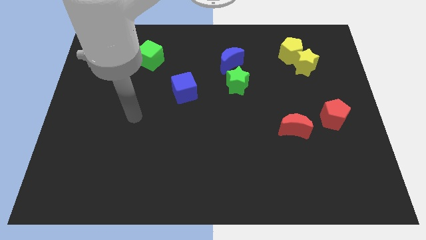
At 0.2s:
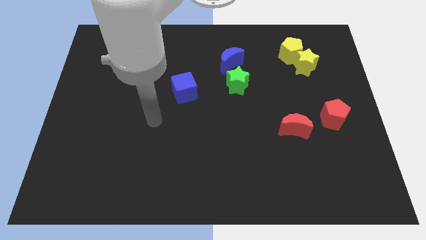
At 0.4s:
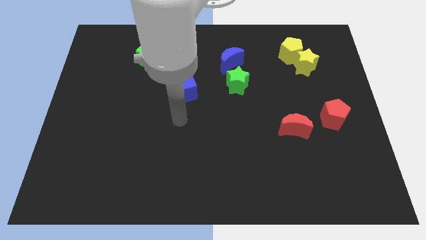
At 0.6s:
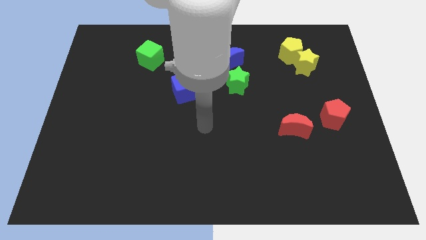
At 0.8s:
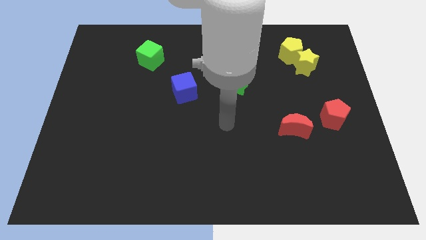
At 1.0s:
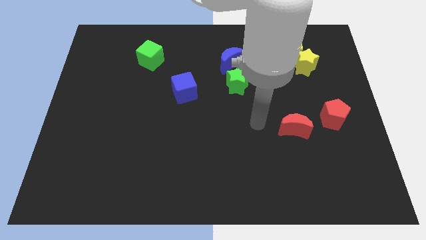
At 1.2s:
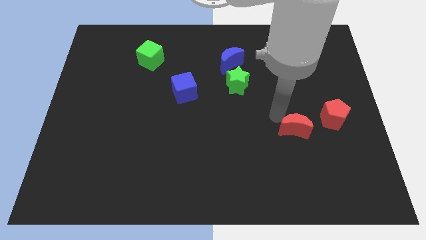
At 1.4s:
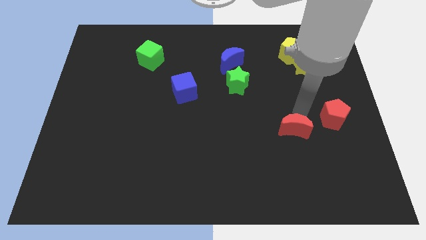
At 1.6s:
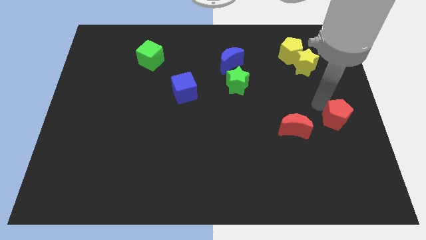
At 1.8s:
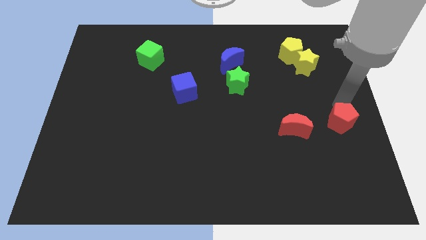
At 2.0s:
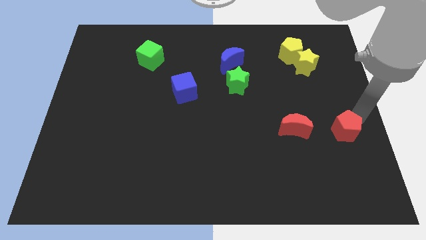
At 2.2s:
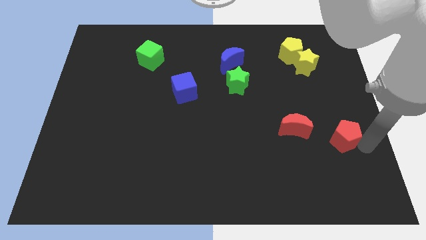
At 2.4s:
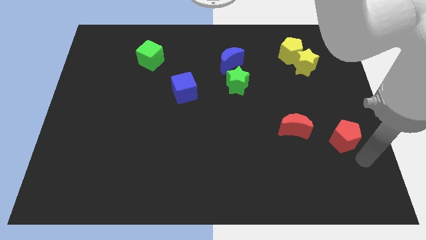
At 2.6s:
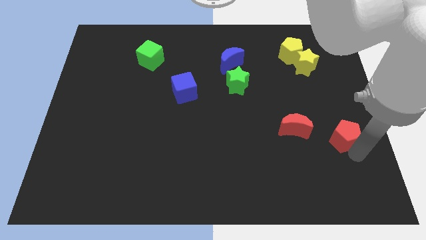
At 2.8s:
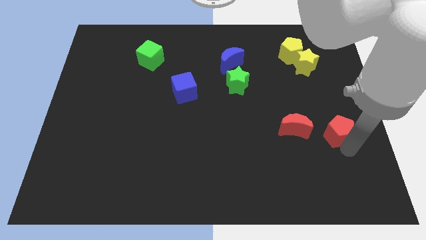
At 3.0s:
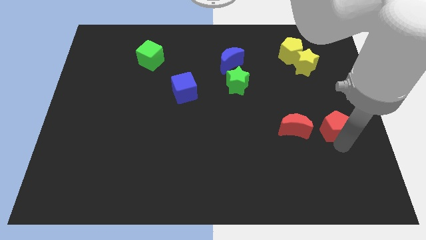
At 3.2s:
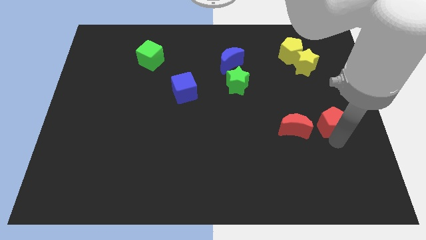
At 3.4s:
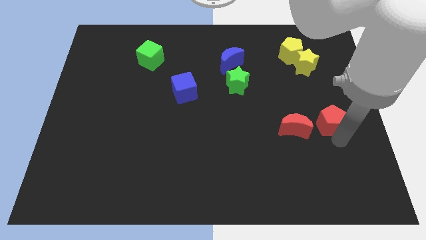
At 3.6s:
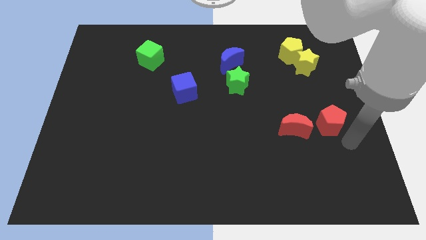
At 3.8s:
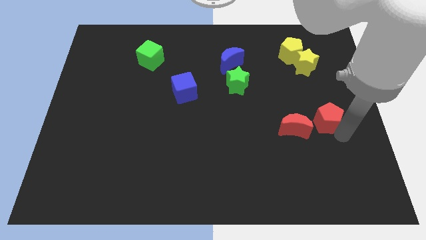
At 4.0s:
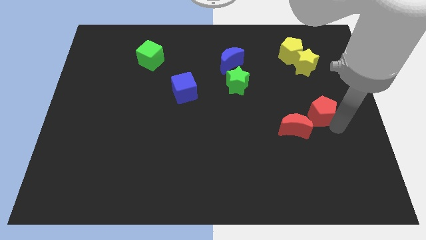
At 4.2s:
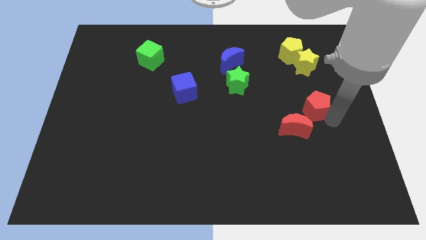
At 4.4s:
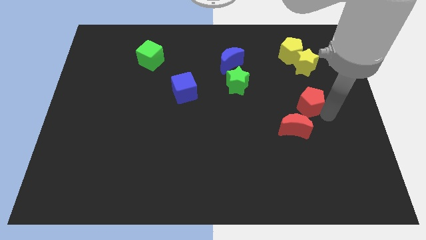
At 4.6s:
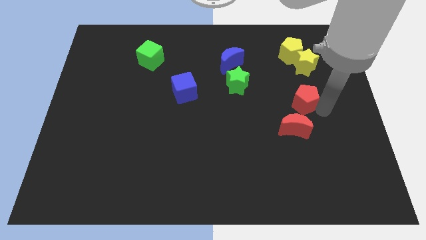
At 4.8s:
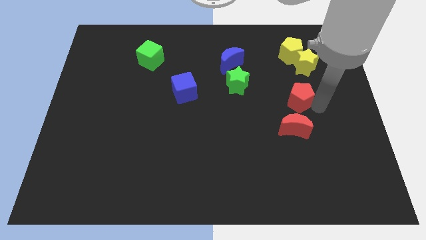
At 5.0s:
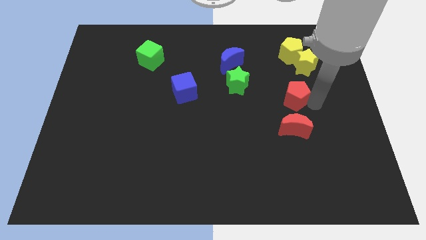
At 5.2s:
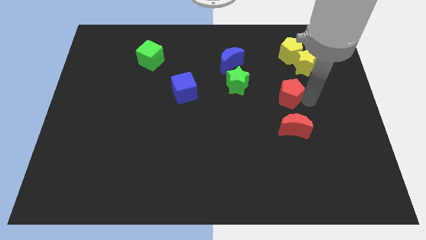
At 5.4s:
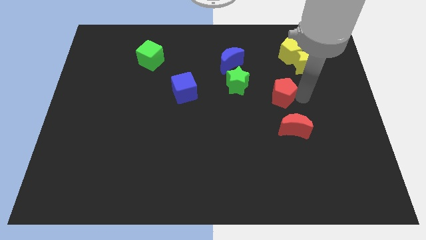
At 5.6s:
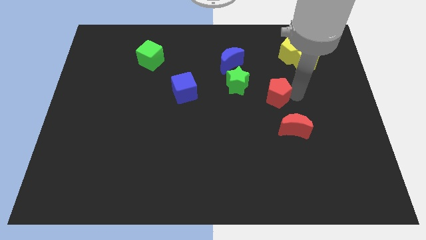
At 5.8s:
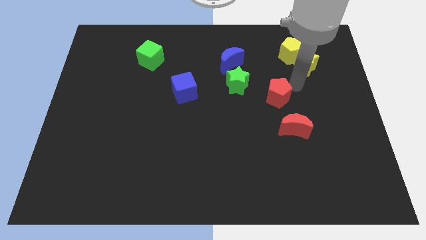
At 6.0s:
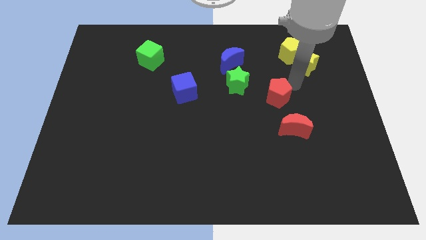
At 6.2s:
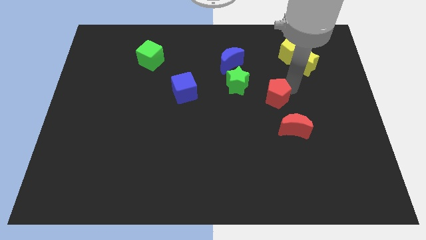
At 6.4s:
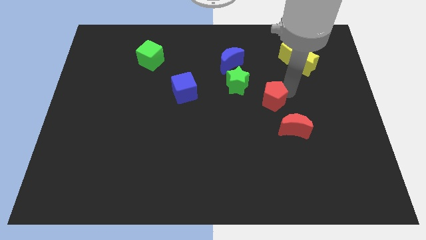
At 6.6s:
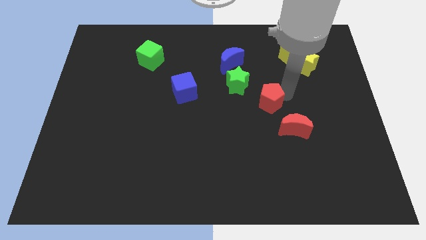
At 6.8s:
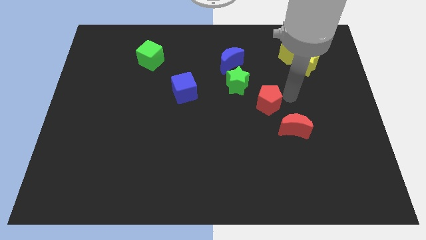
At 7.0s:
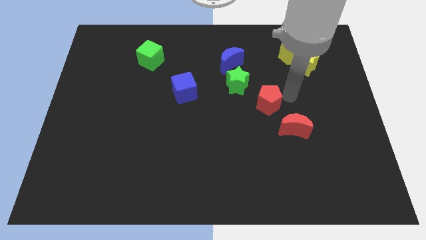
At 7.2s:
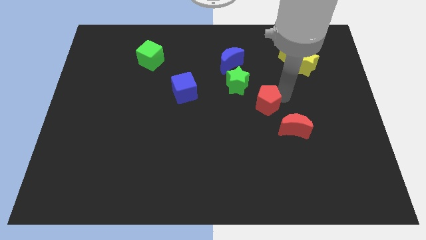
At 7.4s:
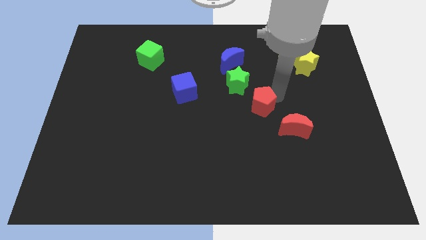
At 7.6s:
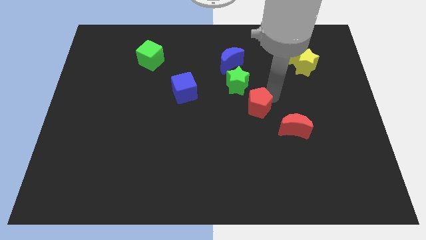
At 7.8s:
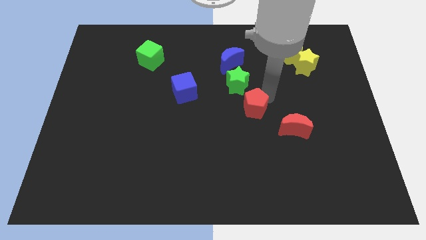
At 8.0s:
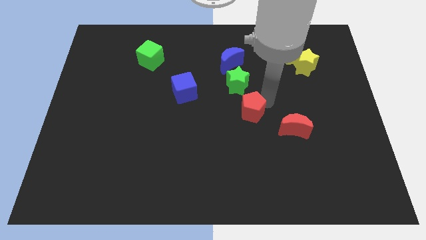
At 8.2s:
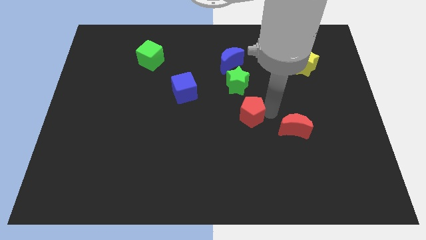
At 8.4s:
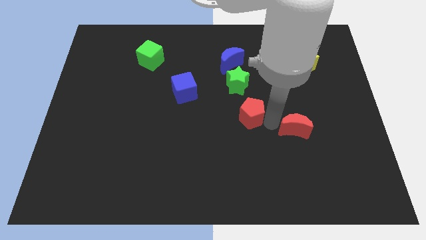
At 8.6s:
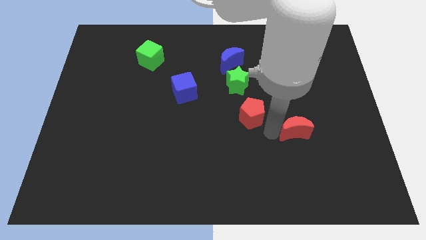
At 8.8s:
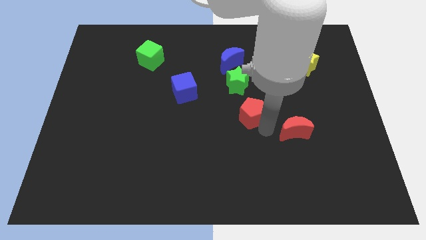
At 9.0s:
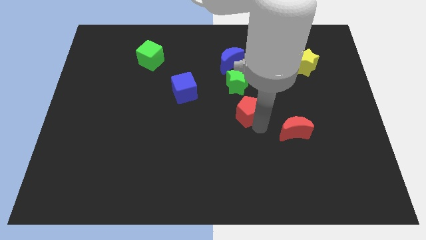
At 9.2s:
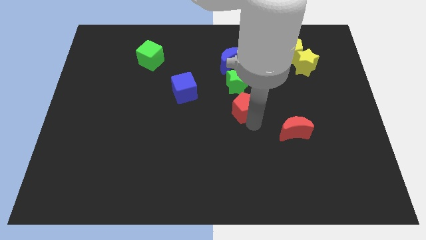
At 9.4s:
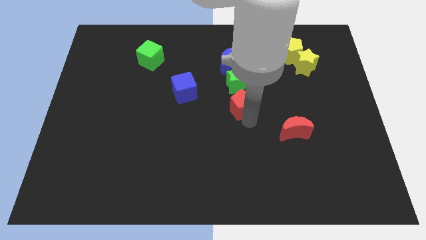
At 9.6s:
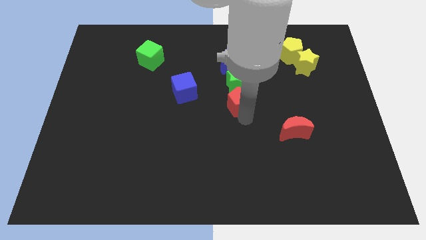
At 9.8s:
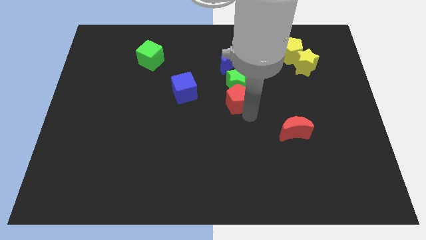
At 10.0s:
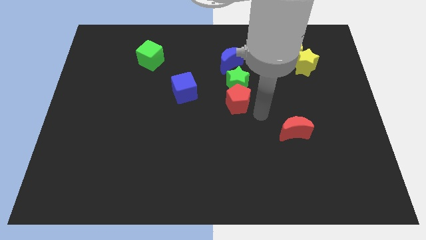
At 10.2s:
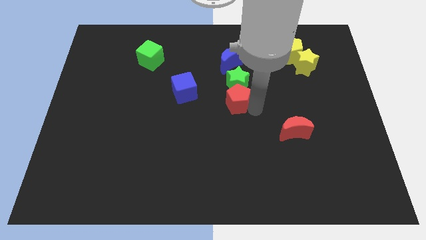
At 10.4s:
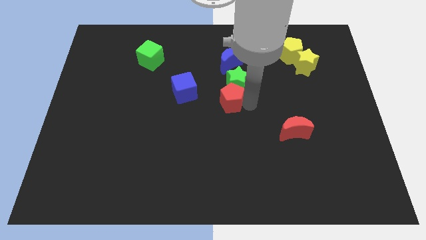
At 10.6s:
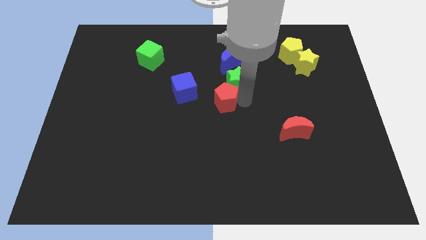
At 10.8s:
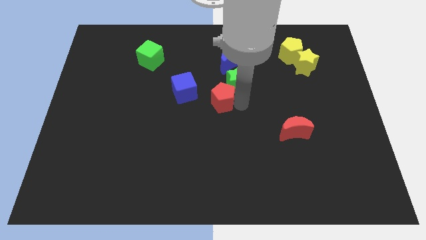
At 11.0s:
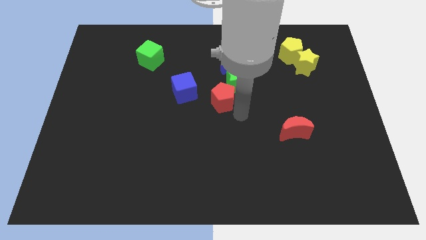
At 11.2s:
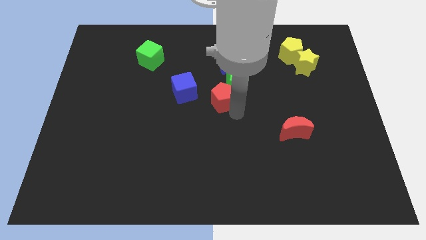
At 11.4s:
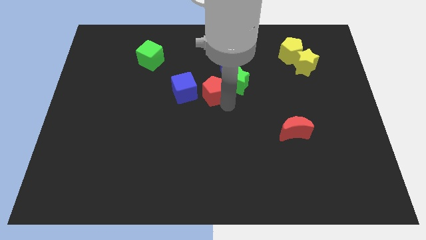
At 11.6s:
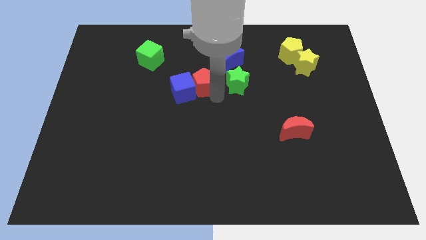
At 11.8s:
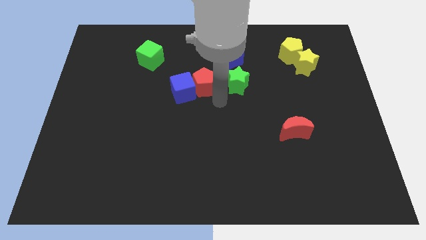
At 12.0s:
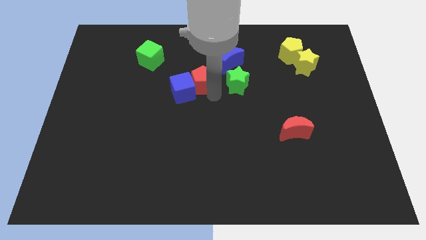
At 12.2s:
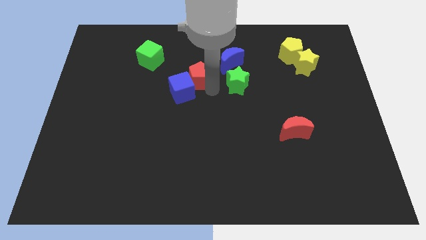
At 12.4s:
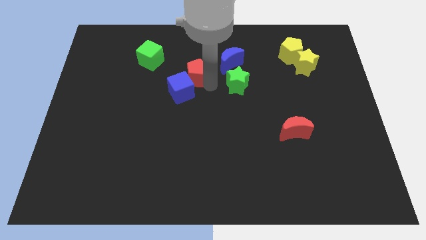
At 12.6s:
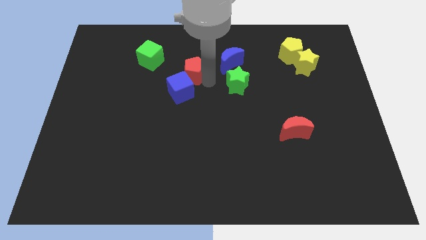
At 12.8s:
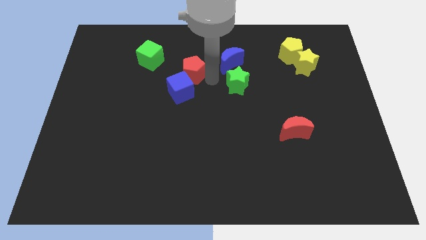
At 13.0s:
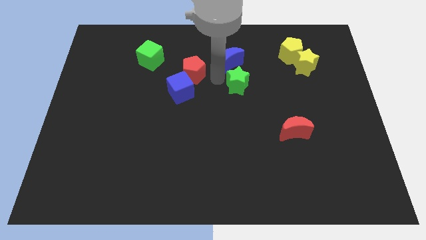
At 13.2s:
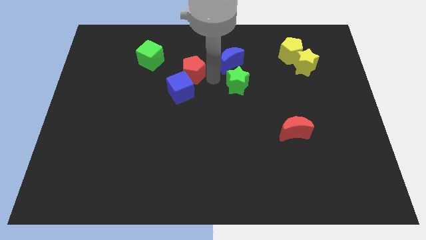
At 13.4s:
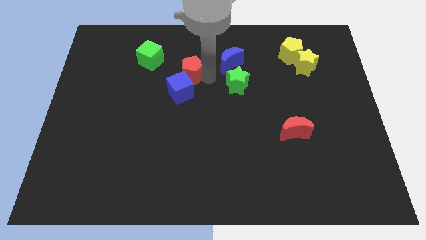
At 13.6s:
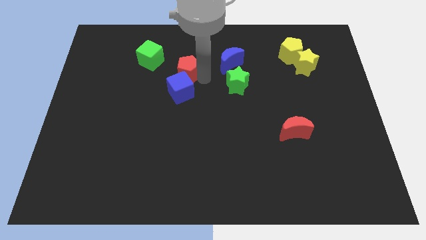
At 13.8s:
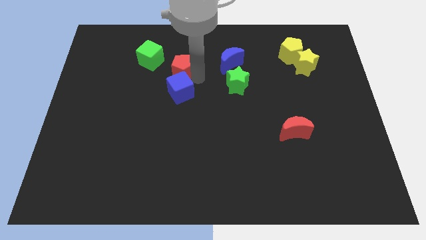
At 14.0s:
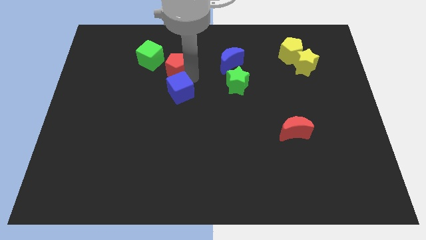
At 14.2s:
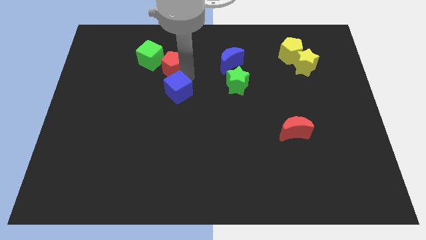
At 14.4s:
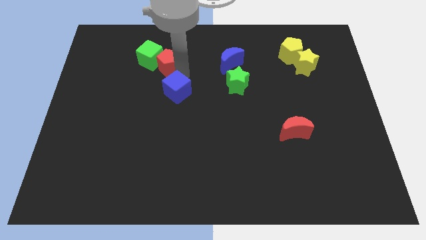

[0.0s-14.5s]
put the red pentagon close to the green cube
